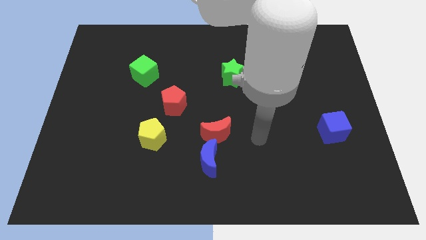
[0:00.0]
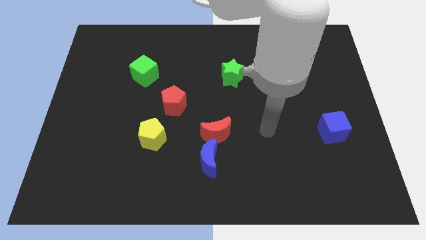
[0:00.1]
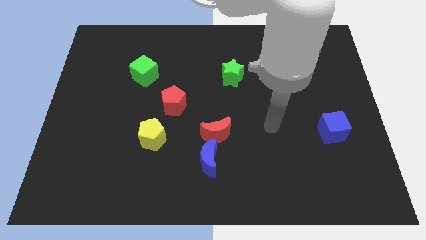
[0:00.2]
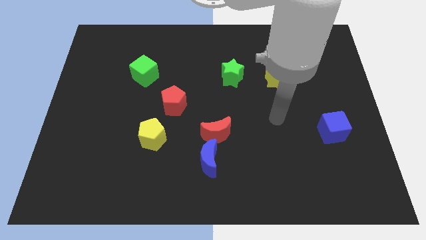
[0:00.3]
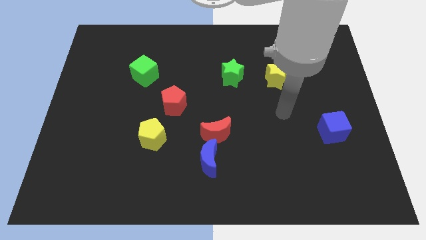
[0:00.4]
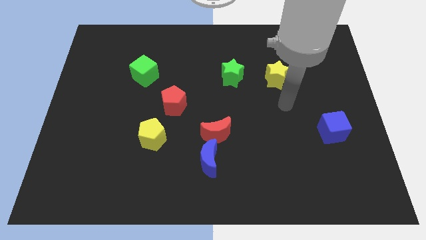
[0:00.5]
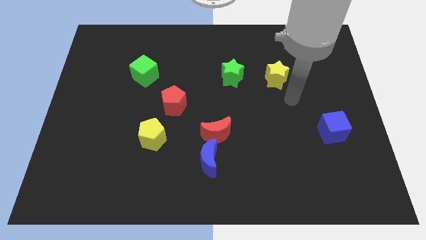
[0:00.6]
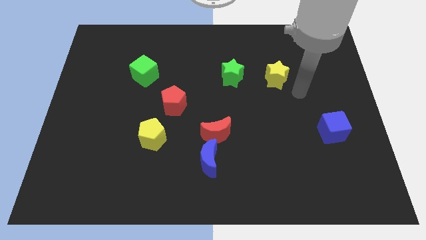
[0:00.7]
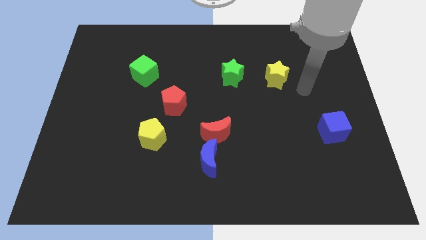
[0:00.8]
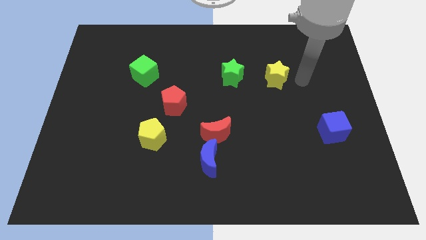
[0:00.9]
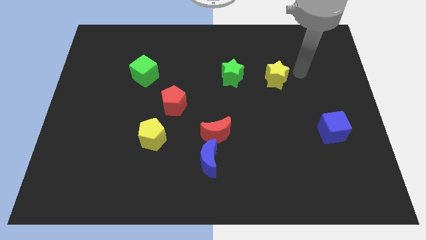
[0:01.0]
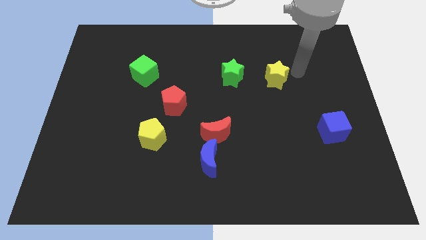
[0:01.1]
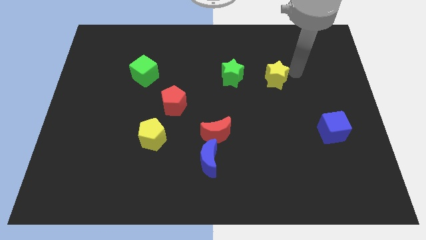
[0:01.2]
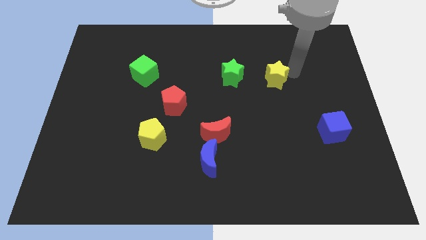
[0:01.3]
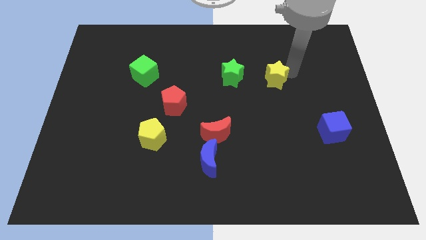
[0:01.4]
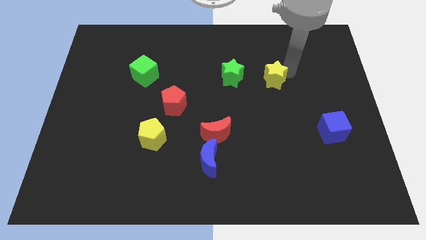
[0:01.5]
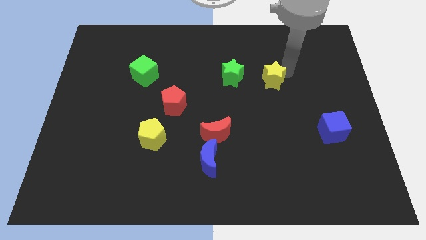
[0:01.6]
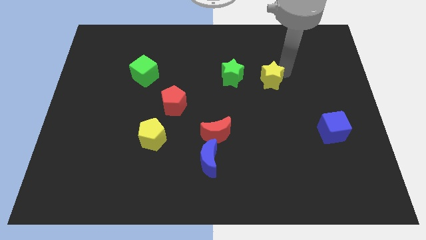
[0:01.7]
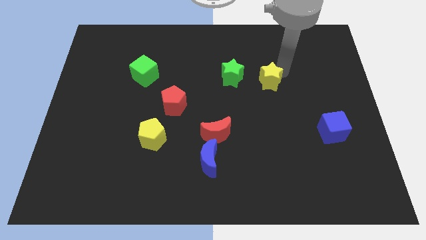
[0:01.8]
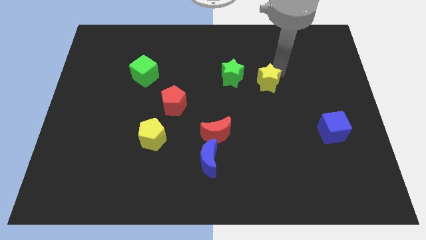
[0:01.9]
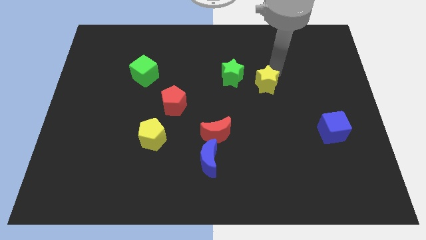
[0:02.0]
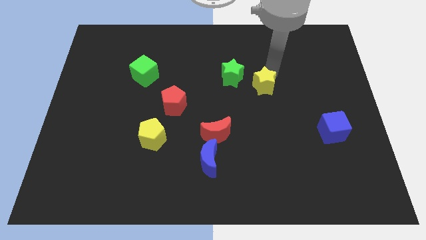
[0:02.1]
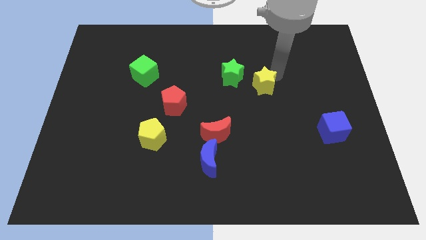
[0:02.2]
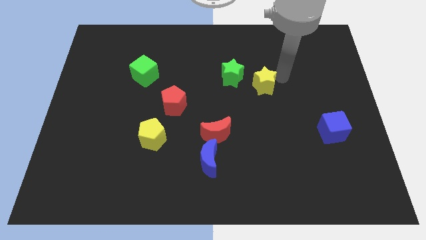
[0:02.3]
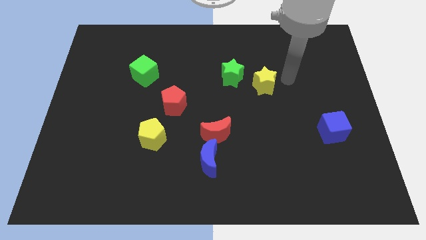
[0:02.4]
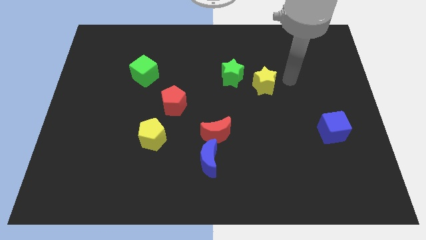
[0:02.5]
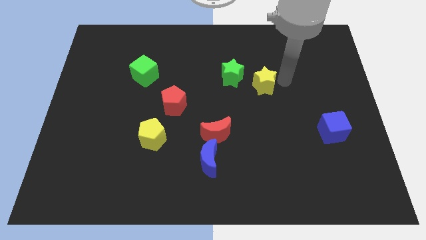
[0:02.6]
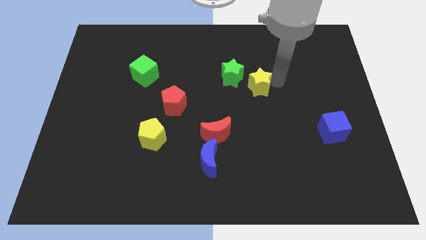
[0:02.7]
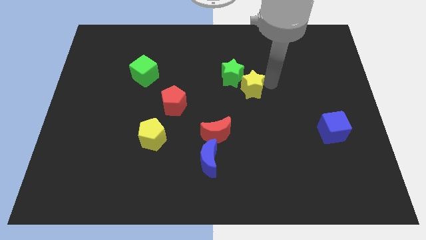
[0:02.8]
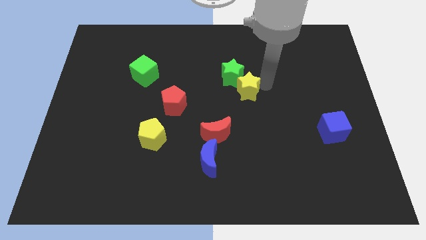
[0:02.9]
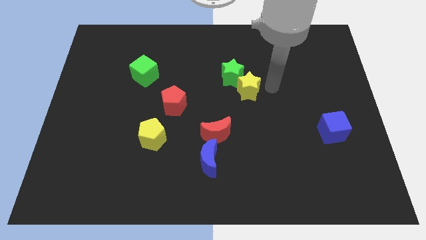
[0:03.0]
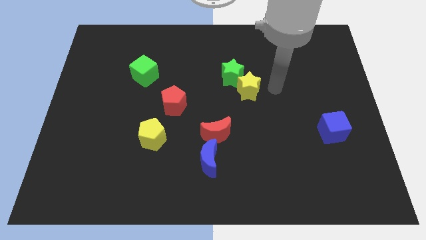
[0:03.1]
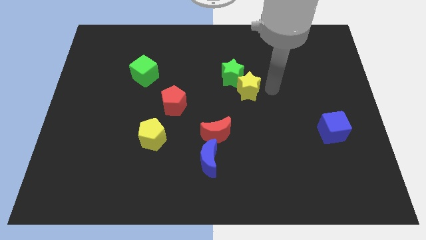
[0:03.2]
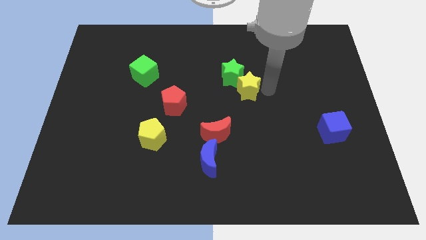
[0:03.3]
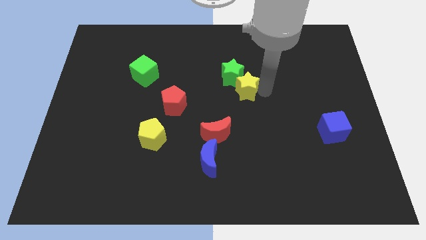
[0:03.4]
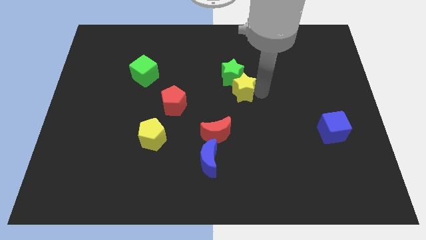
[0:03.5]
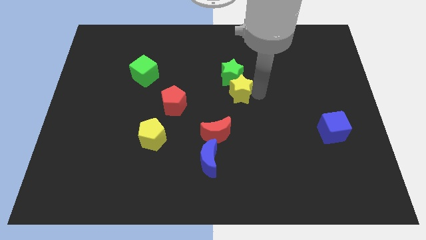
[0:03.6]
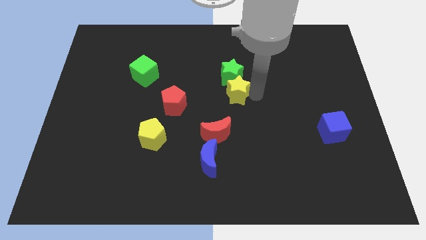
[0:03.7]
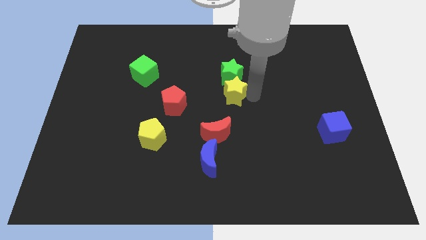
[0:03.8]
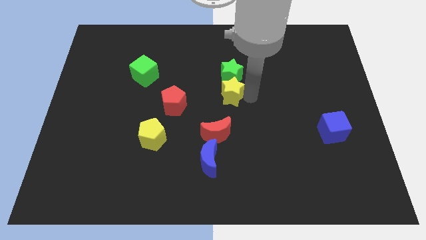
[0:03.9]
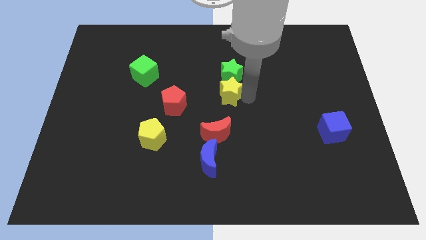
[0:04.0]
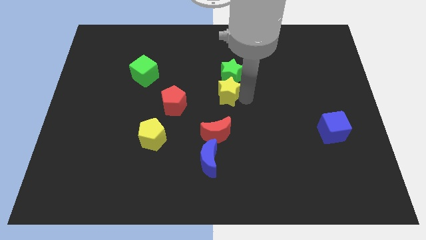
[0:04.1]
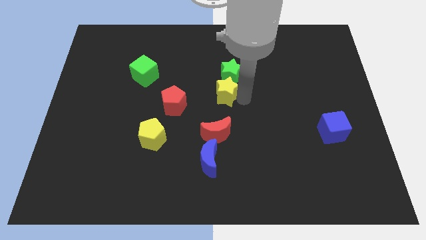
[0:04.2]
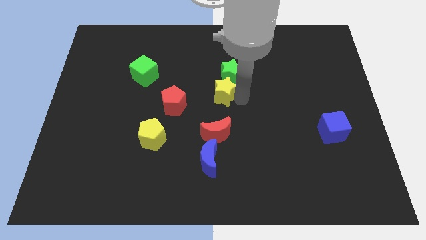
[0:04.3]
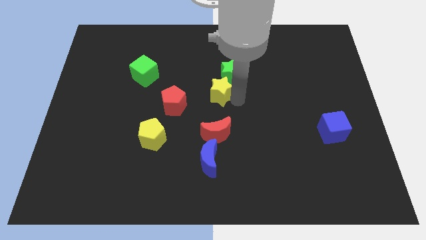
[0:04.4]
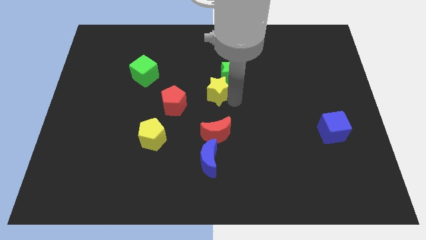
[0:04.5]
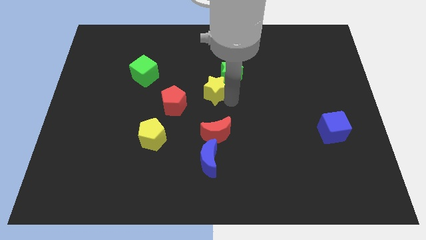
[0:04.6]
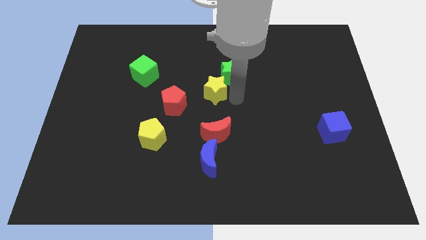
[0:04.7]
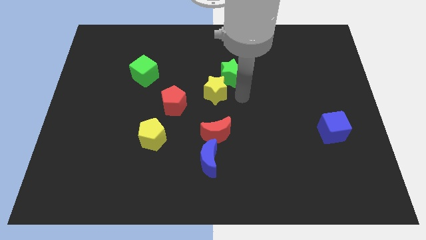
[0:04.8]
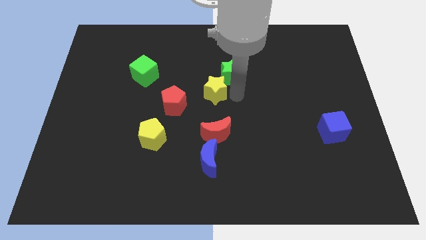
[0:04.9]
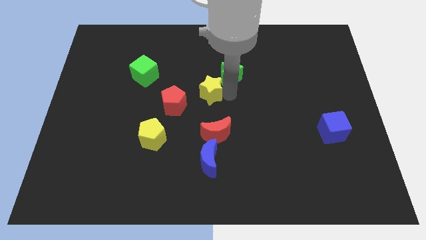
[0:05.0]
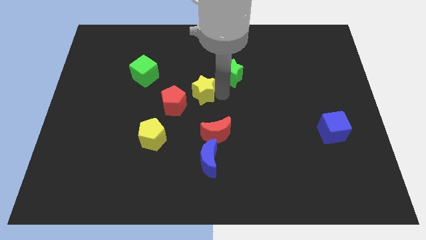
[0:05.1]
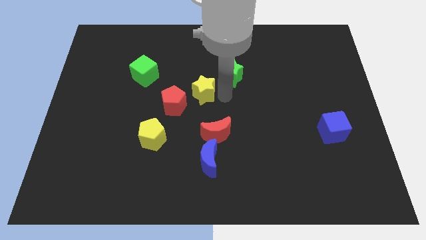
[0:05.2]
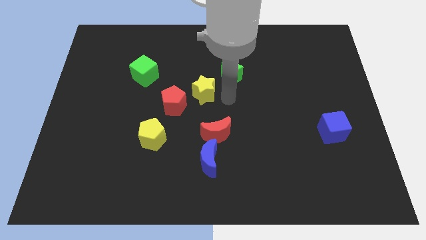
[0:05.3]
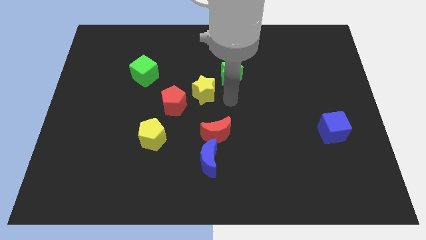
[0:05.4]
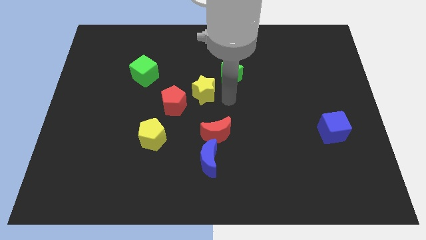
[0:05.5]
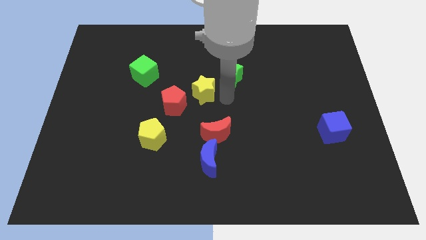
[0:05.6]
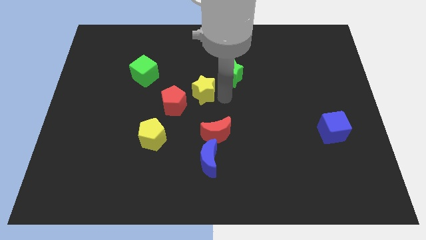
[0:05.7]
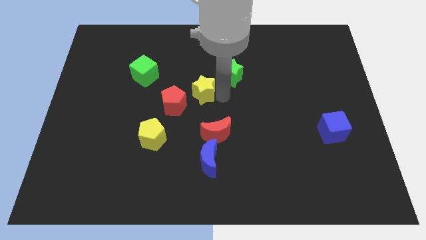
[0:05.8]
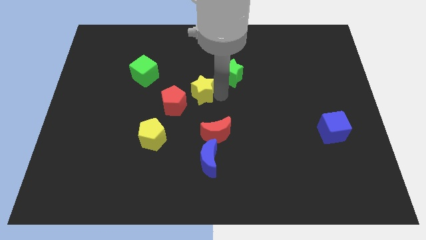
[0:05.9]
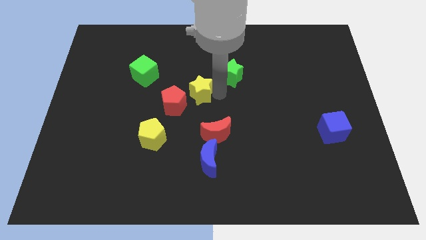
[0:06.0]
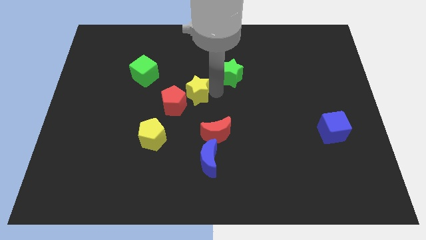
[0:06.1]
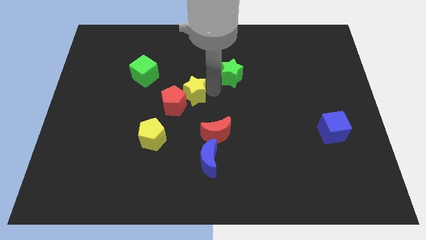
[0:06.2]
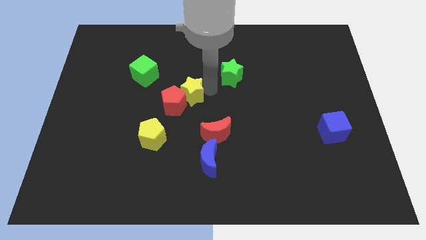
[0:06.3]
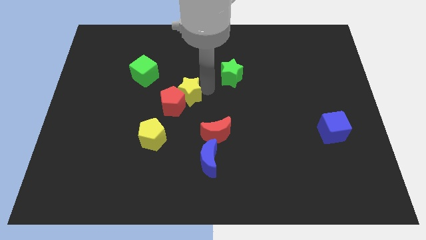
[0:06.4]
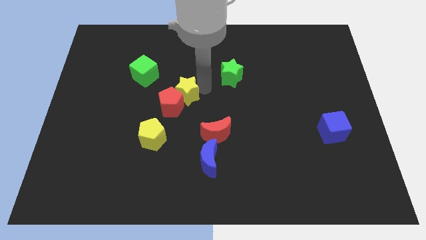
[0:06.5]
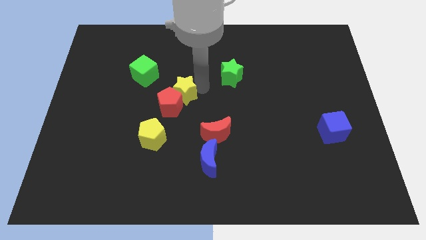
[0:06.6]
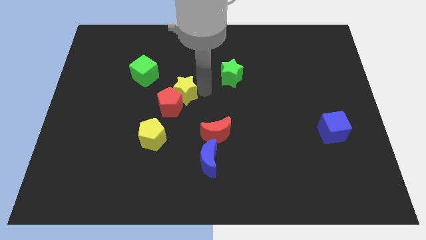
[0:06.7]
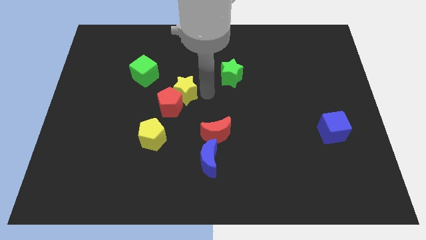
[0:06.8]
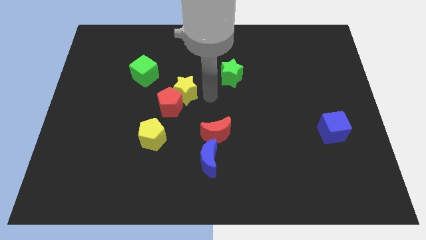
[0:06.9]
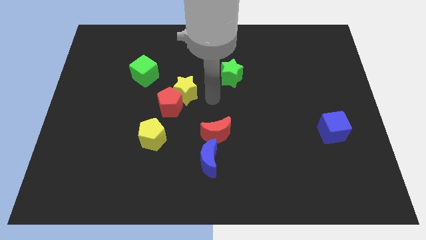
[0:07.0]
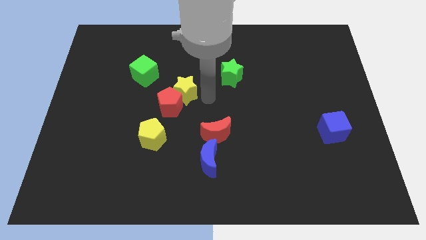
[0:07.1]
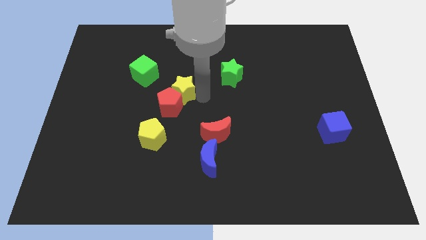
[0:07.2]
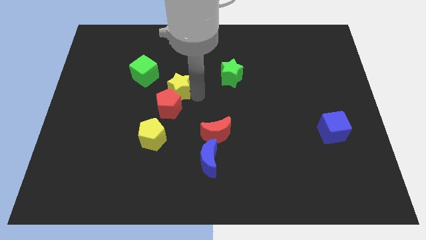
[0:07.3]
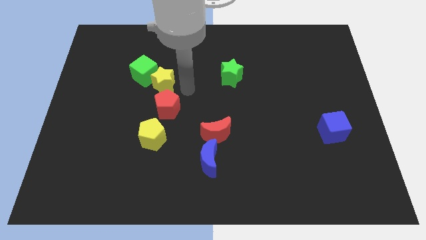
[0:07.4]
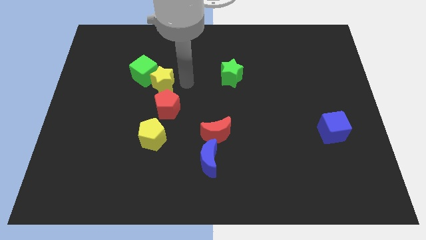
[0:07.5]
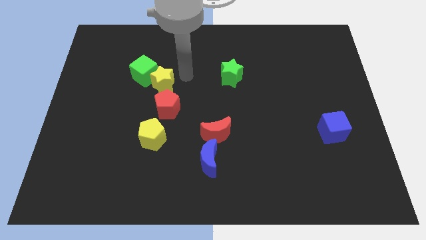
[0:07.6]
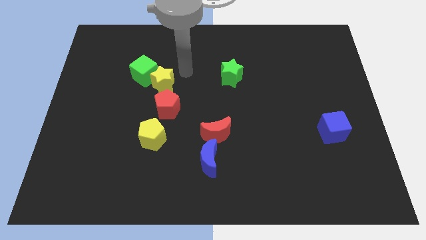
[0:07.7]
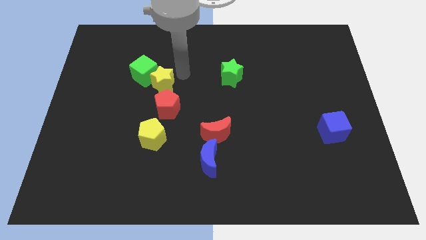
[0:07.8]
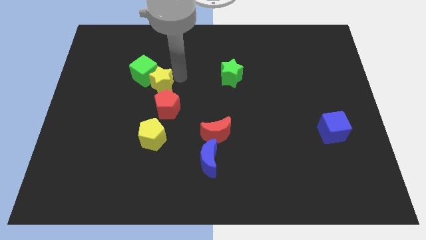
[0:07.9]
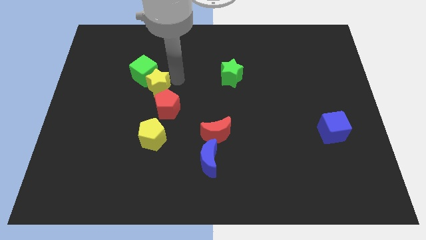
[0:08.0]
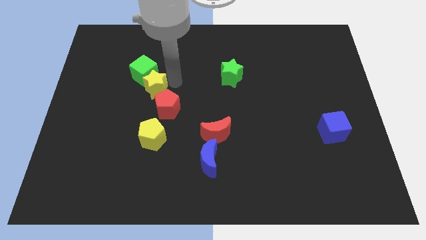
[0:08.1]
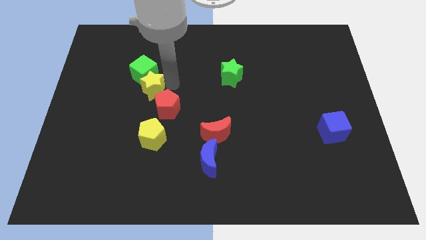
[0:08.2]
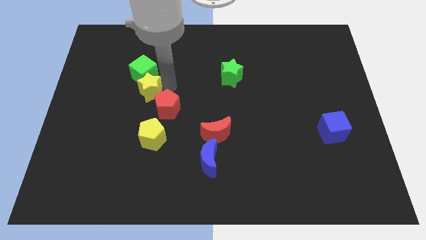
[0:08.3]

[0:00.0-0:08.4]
push the yellow star to the left side of the red pentagon
